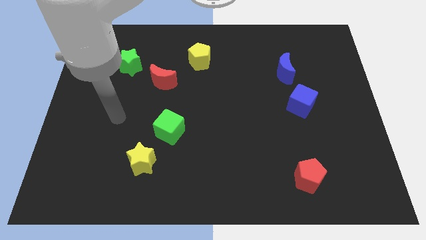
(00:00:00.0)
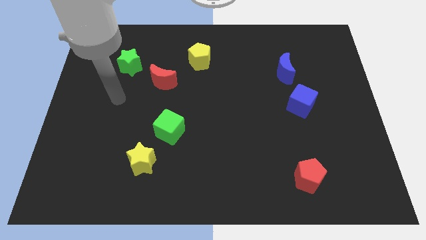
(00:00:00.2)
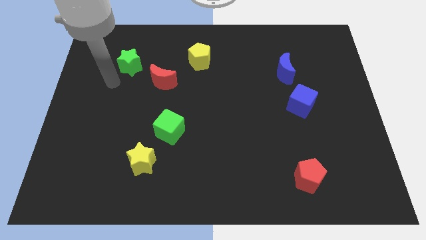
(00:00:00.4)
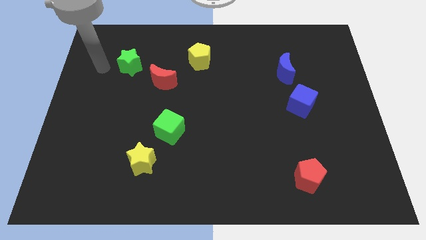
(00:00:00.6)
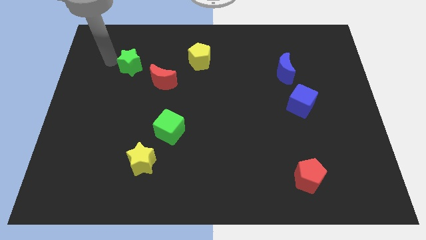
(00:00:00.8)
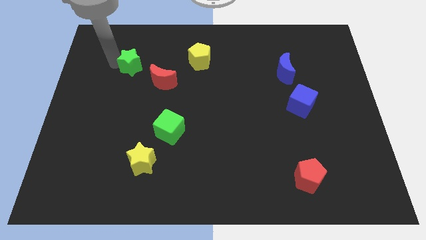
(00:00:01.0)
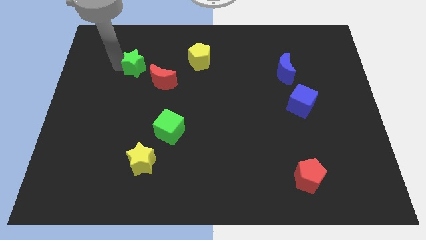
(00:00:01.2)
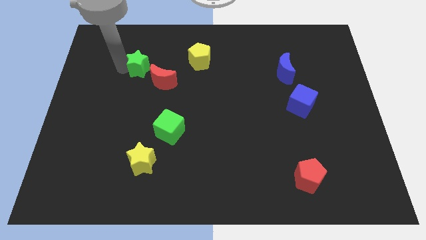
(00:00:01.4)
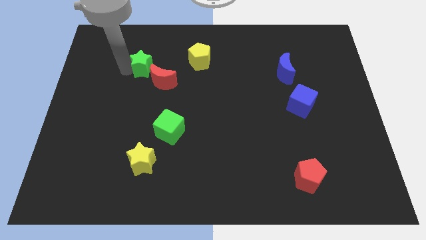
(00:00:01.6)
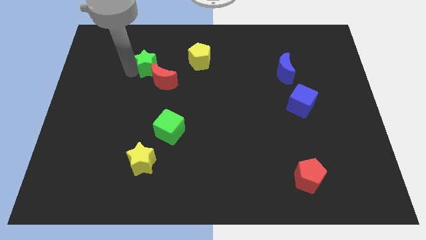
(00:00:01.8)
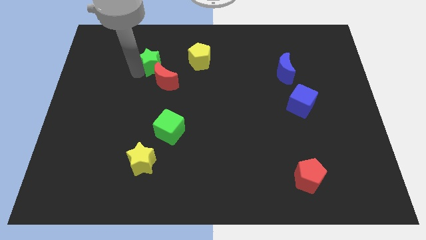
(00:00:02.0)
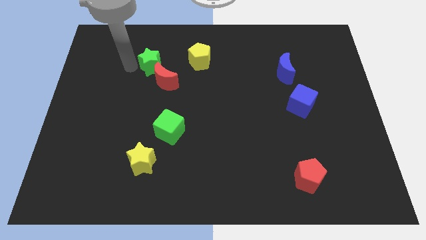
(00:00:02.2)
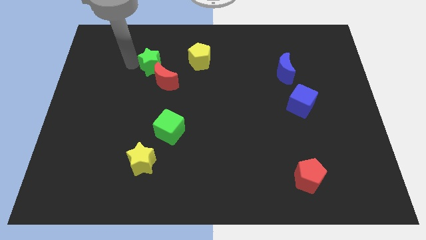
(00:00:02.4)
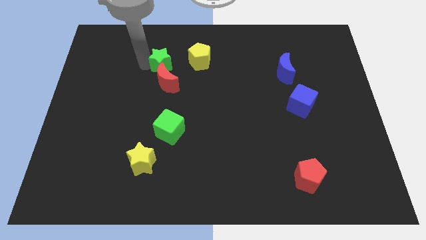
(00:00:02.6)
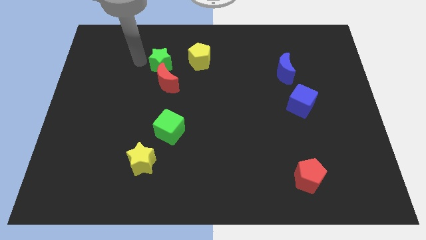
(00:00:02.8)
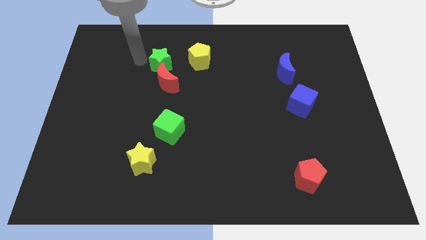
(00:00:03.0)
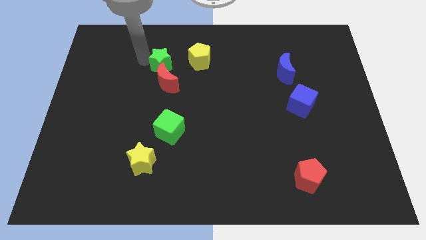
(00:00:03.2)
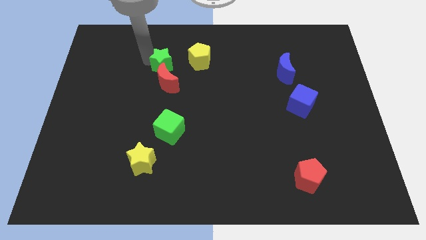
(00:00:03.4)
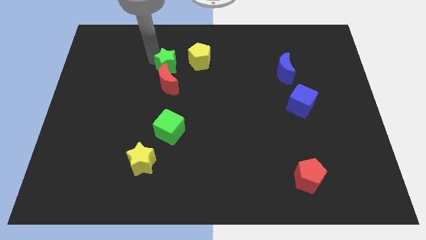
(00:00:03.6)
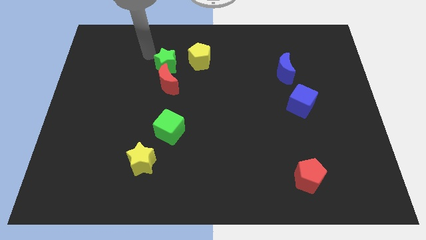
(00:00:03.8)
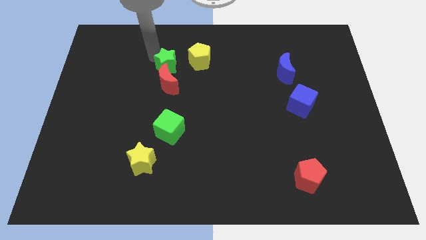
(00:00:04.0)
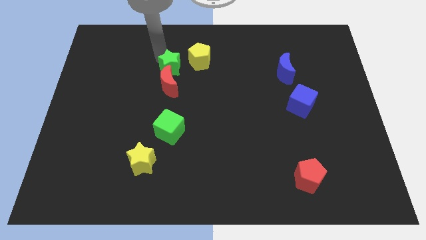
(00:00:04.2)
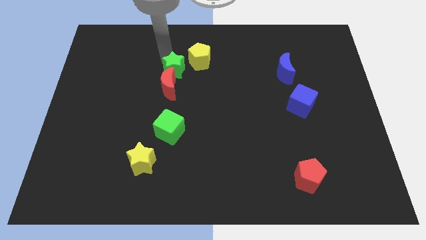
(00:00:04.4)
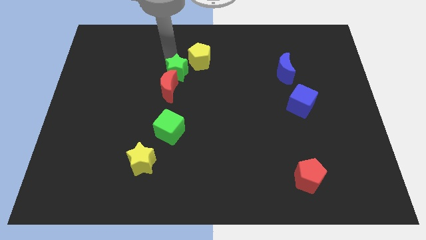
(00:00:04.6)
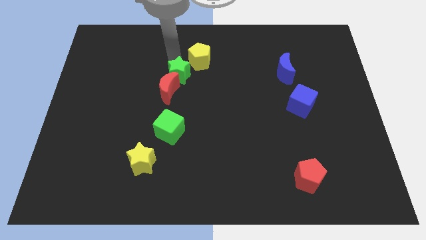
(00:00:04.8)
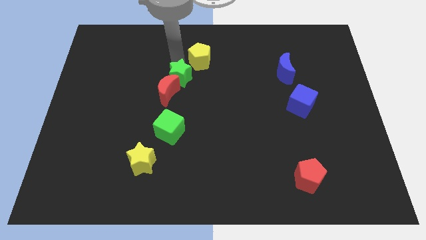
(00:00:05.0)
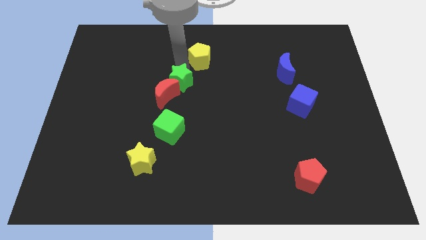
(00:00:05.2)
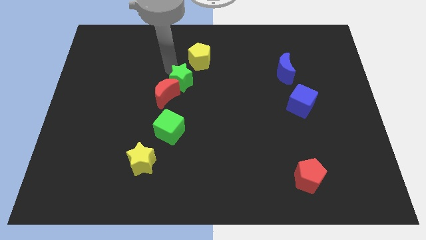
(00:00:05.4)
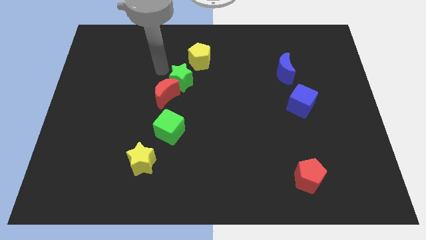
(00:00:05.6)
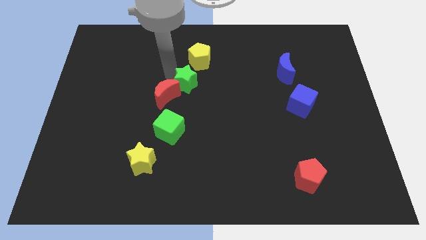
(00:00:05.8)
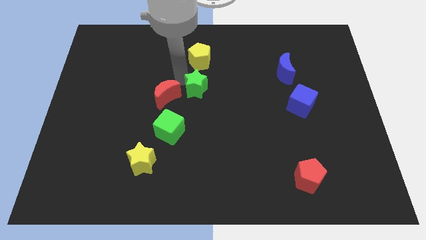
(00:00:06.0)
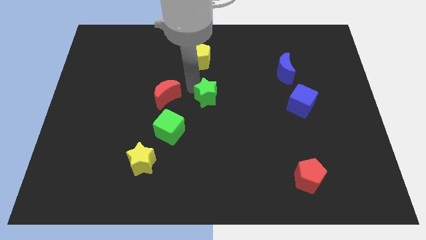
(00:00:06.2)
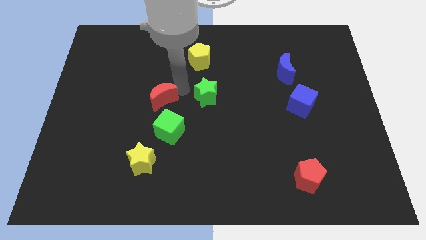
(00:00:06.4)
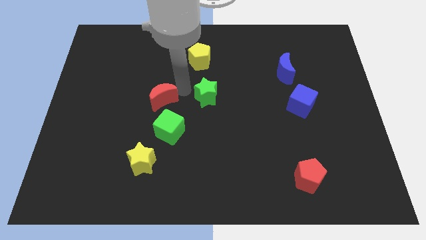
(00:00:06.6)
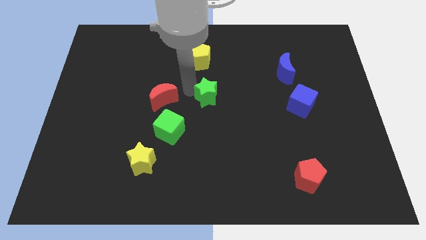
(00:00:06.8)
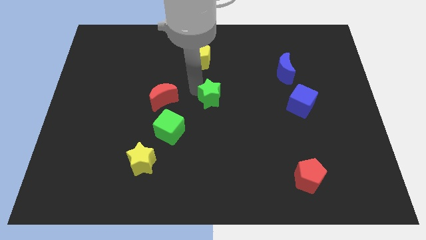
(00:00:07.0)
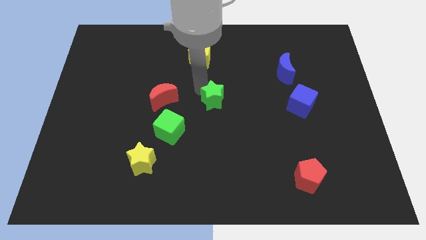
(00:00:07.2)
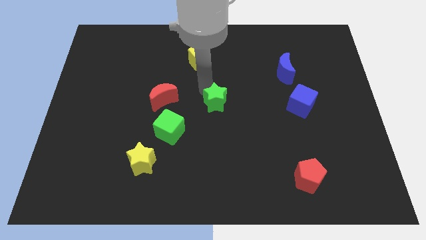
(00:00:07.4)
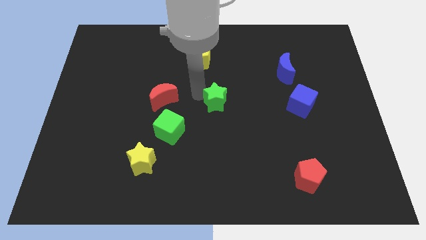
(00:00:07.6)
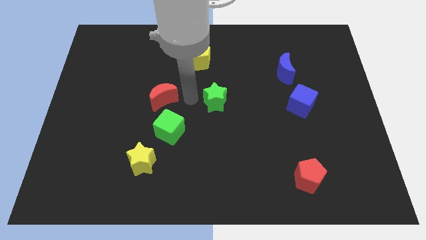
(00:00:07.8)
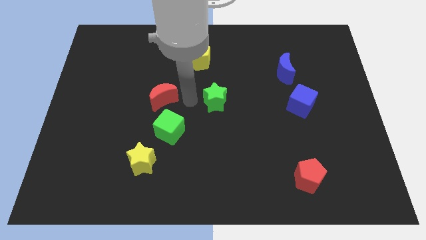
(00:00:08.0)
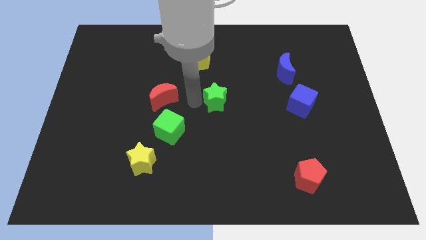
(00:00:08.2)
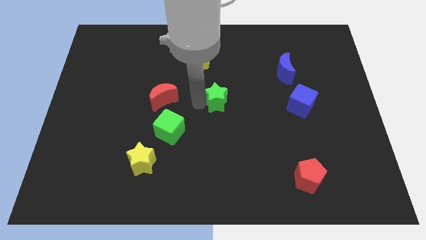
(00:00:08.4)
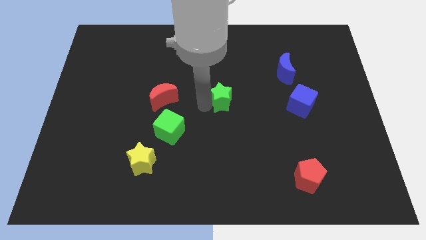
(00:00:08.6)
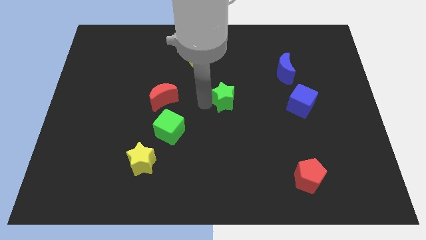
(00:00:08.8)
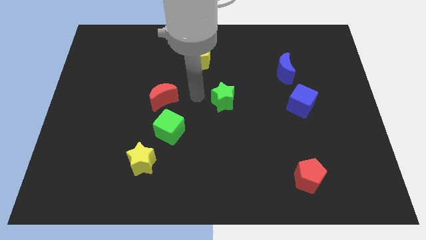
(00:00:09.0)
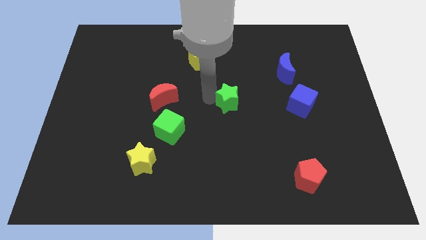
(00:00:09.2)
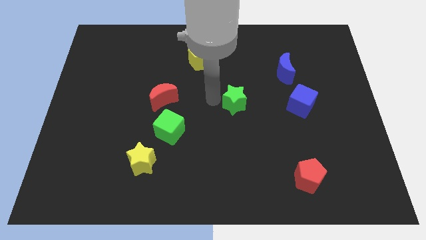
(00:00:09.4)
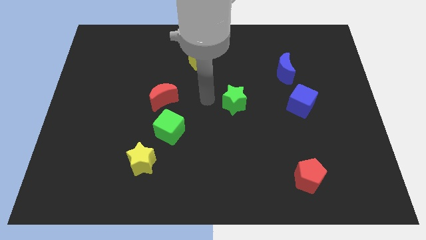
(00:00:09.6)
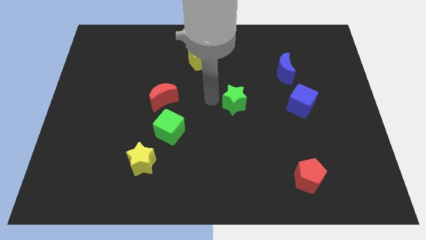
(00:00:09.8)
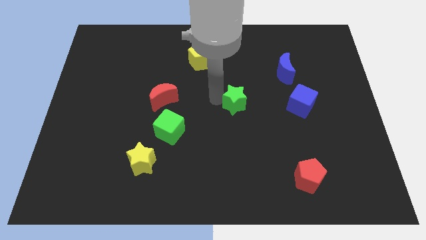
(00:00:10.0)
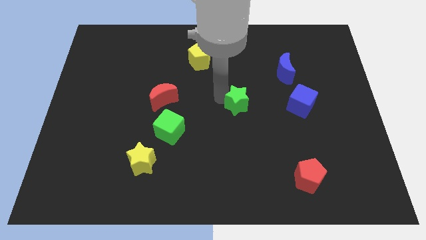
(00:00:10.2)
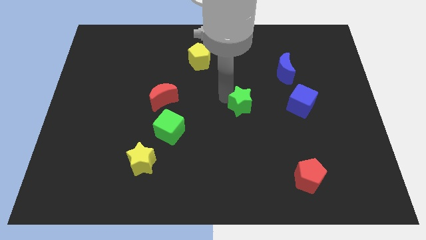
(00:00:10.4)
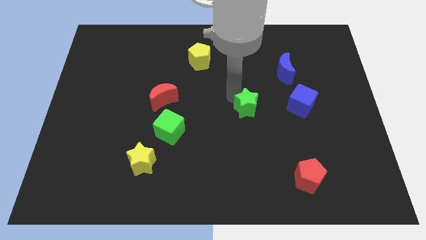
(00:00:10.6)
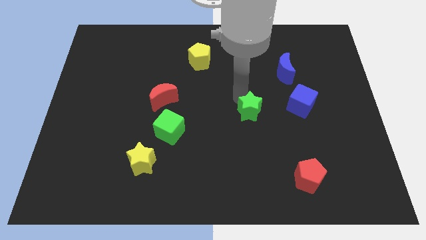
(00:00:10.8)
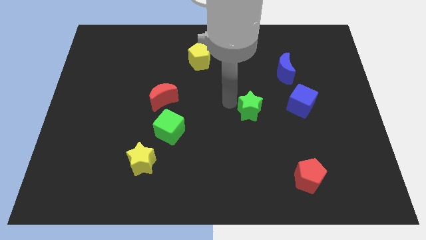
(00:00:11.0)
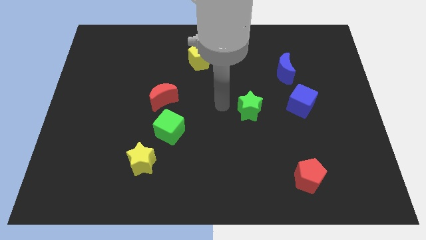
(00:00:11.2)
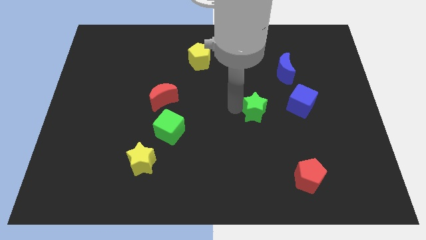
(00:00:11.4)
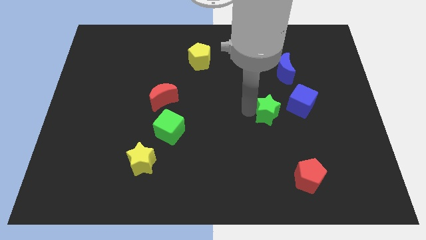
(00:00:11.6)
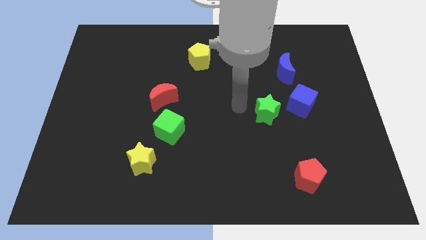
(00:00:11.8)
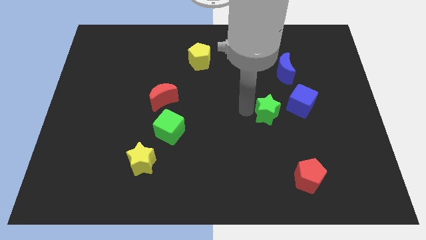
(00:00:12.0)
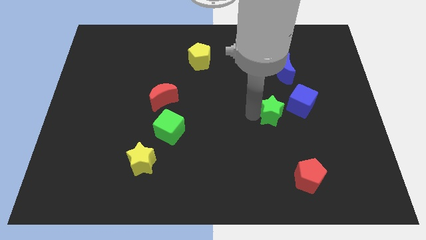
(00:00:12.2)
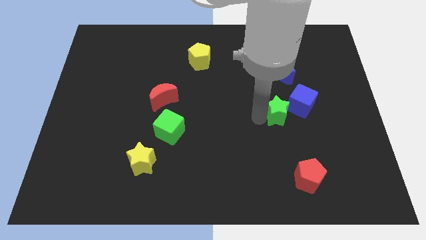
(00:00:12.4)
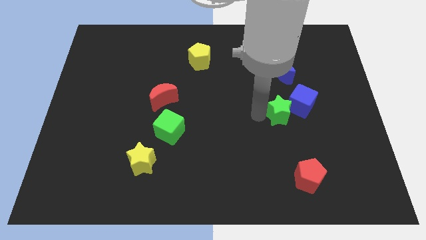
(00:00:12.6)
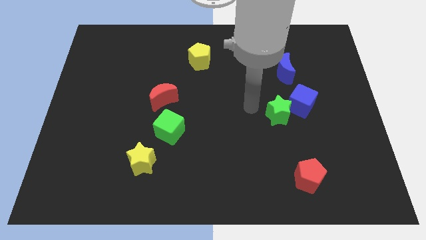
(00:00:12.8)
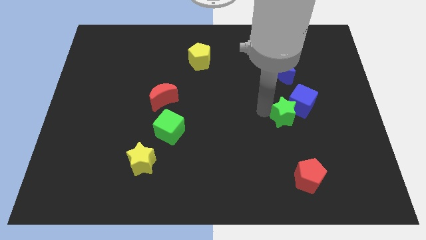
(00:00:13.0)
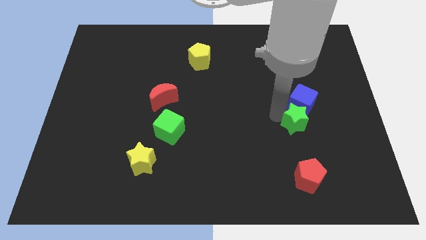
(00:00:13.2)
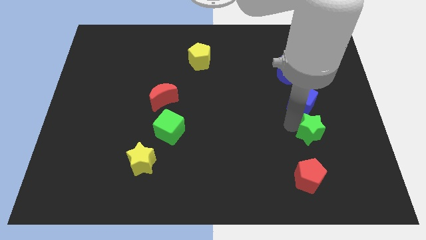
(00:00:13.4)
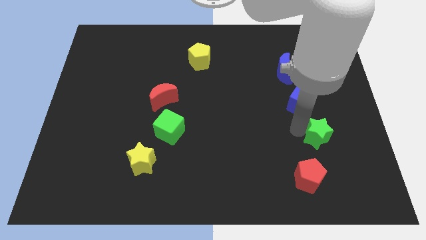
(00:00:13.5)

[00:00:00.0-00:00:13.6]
slide the green star diagonally down and to the right of the blue cube
